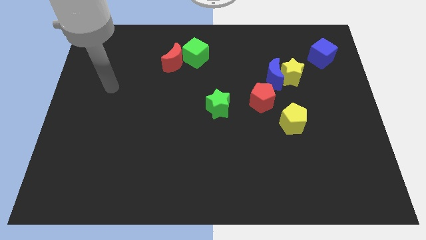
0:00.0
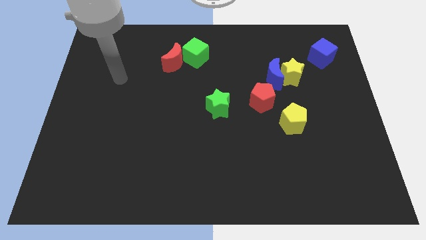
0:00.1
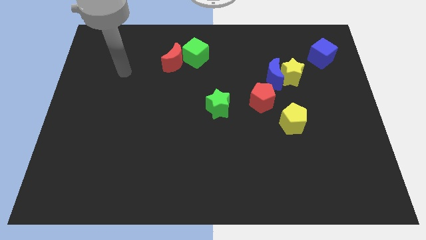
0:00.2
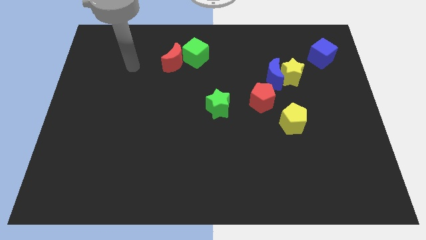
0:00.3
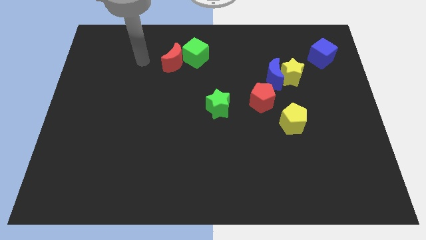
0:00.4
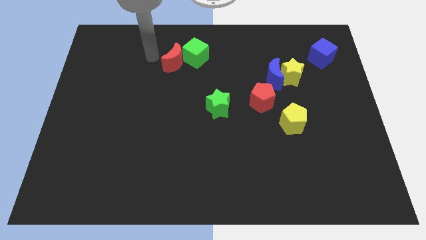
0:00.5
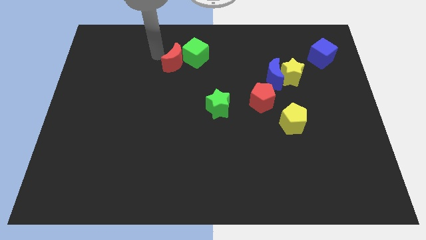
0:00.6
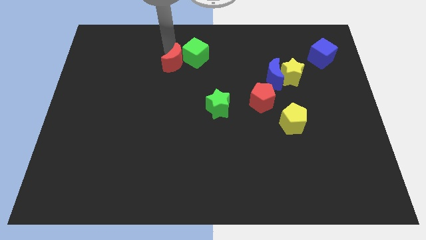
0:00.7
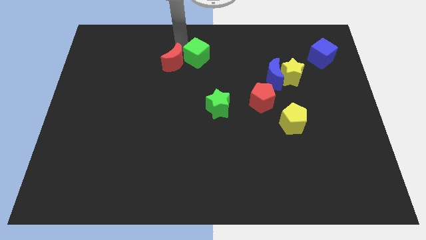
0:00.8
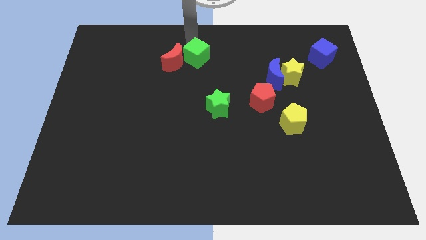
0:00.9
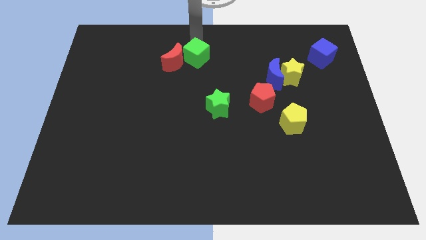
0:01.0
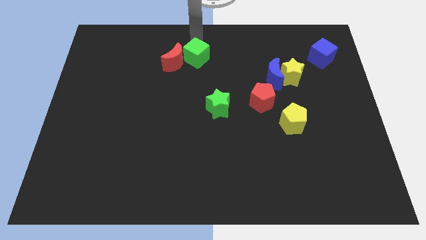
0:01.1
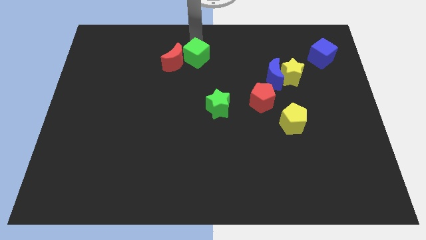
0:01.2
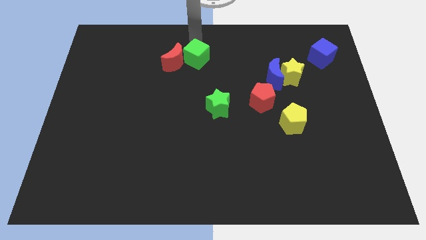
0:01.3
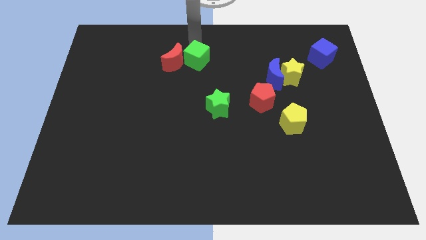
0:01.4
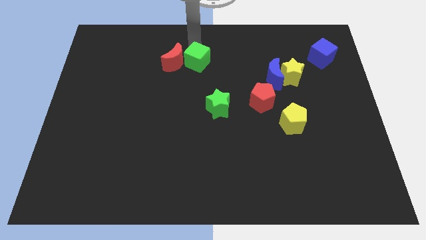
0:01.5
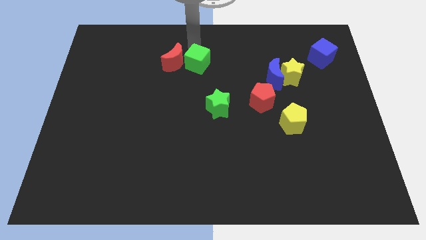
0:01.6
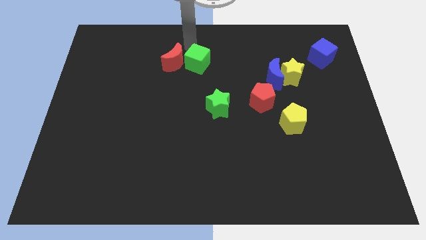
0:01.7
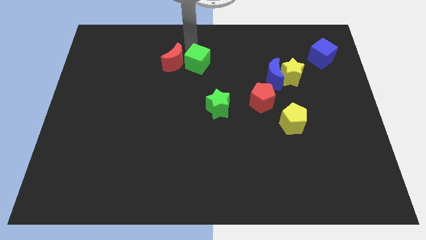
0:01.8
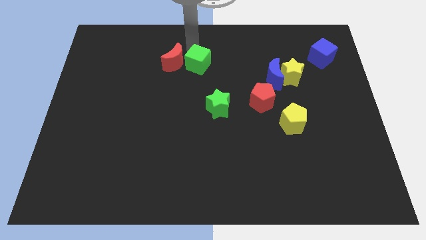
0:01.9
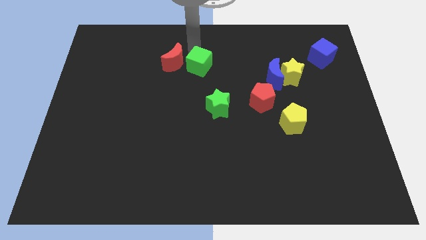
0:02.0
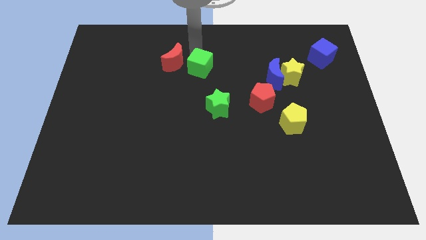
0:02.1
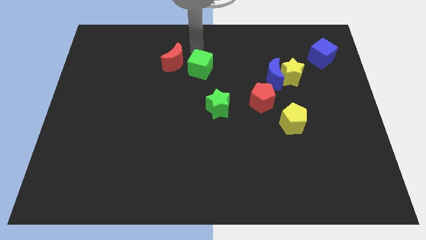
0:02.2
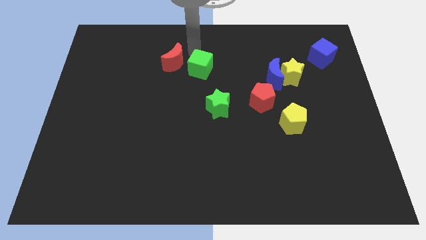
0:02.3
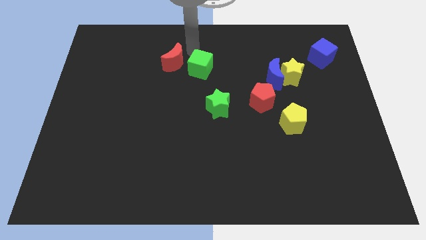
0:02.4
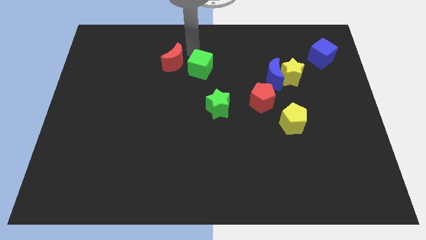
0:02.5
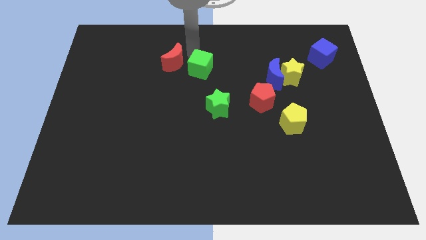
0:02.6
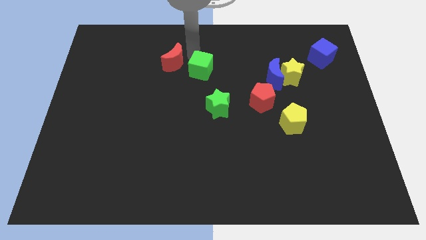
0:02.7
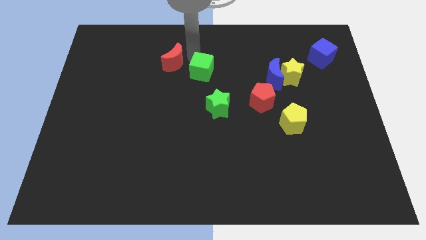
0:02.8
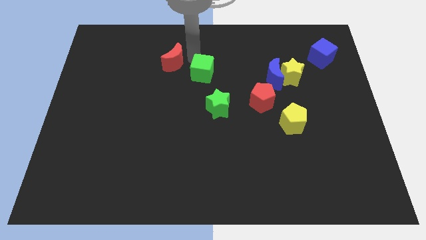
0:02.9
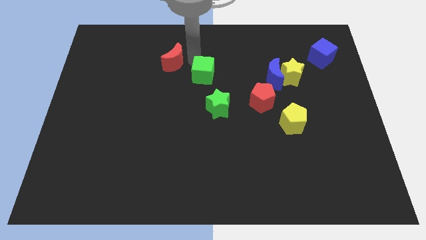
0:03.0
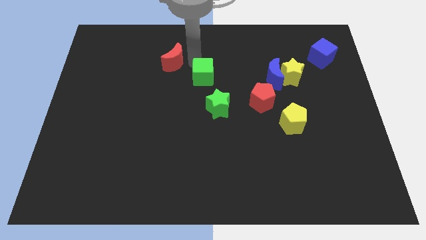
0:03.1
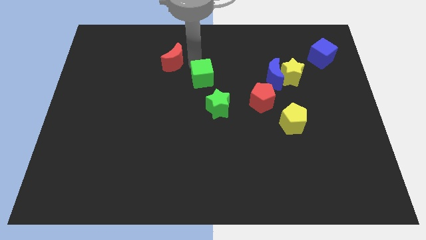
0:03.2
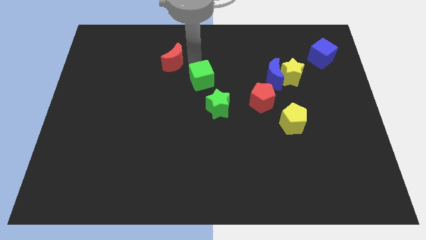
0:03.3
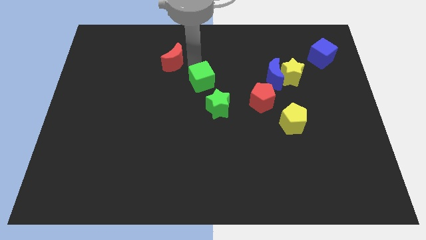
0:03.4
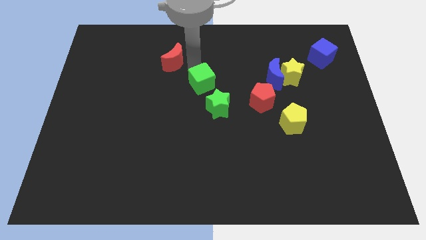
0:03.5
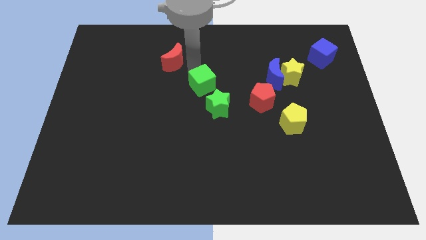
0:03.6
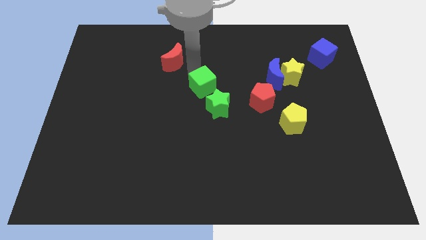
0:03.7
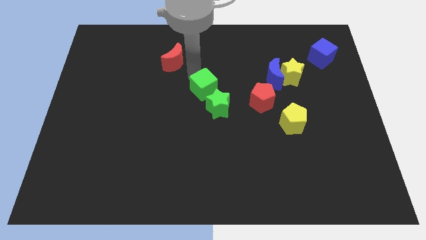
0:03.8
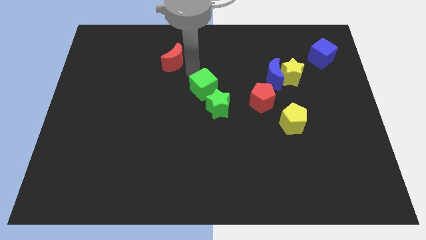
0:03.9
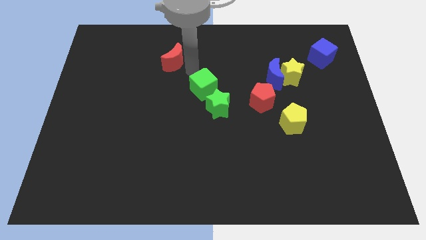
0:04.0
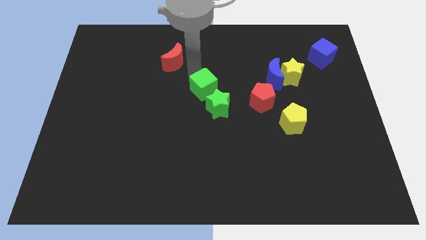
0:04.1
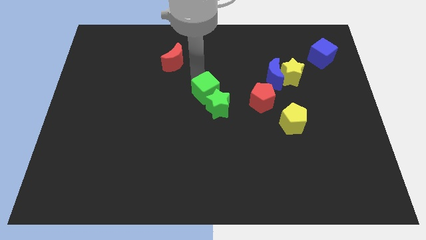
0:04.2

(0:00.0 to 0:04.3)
move the green cube to the green star

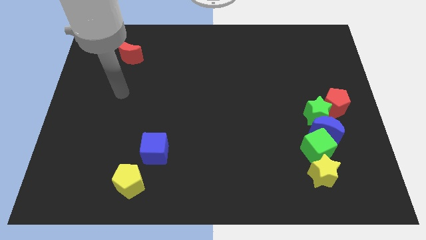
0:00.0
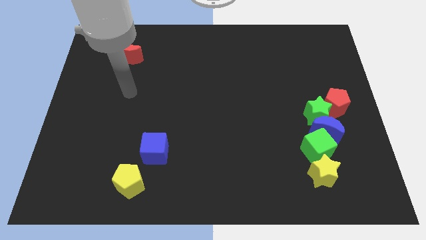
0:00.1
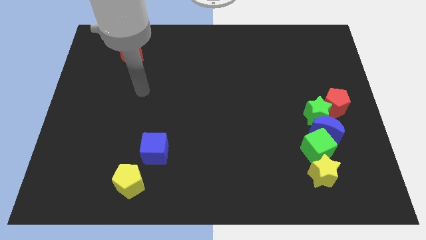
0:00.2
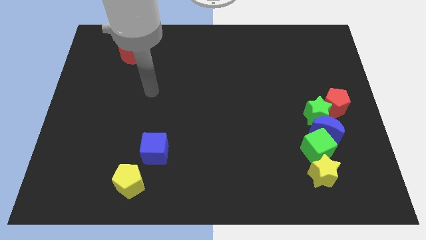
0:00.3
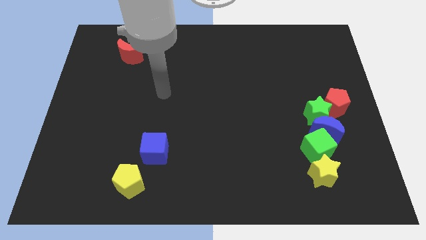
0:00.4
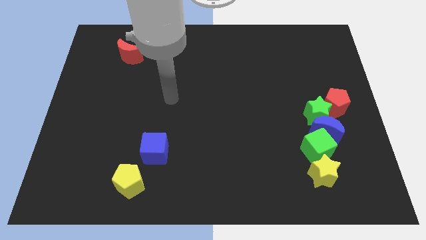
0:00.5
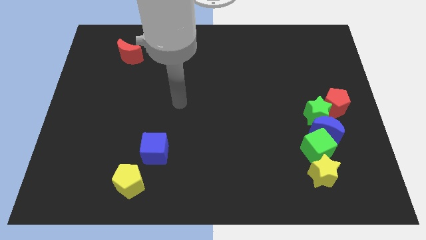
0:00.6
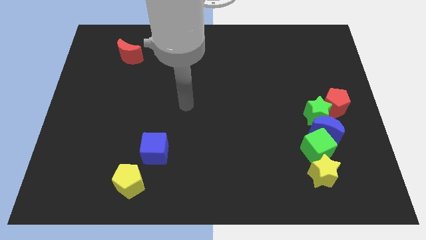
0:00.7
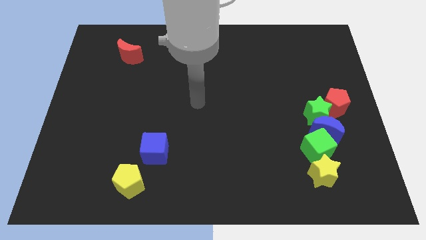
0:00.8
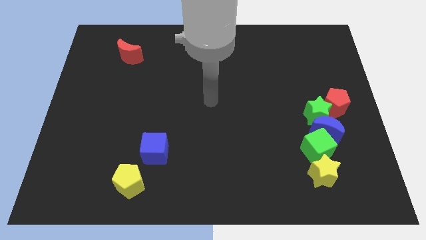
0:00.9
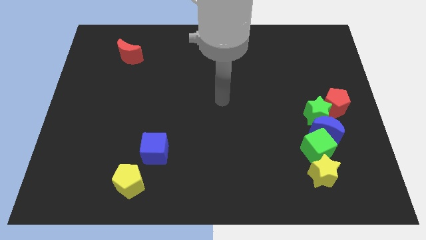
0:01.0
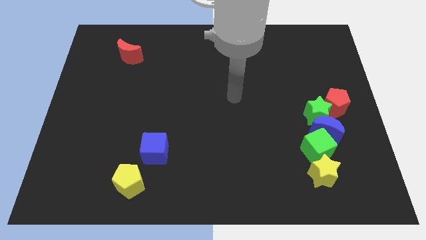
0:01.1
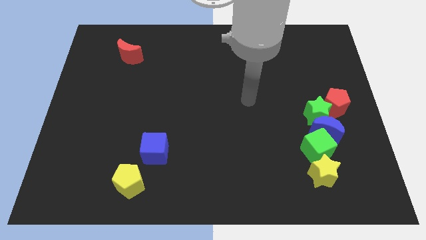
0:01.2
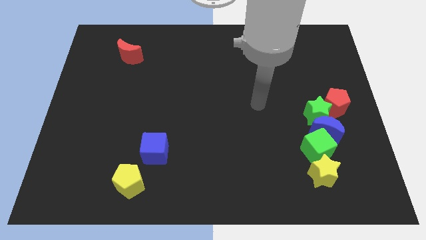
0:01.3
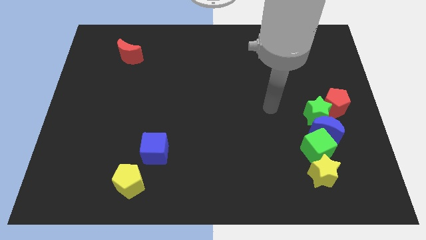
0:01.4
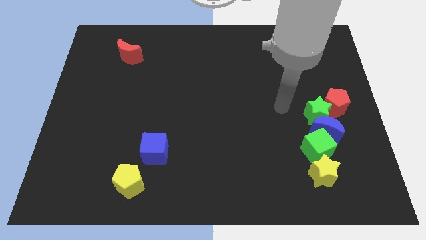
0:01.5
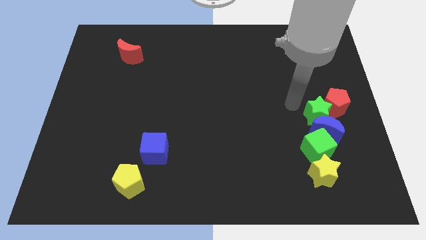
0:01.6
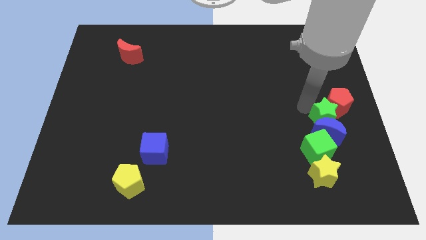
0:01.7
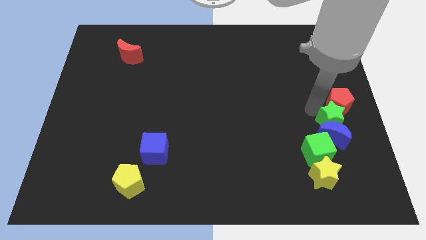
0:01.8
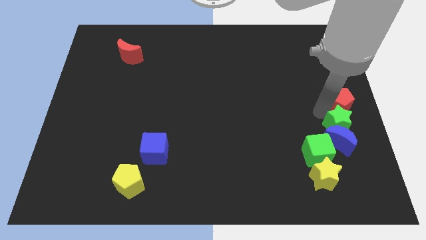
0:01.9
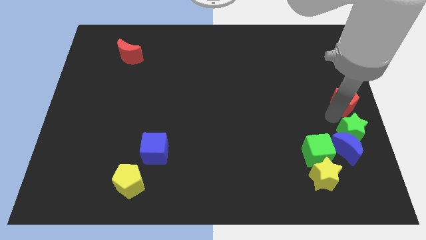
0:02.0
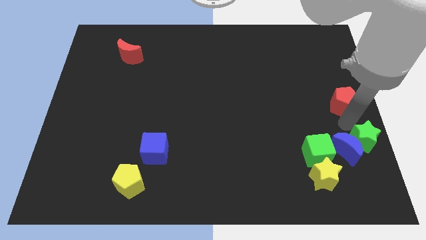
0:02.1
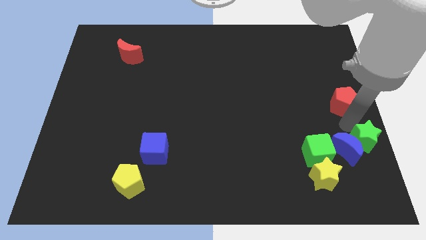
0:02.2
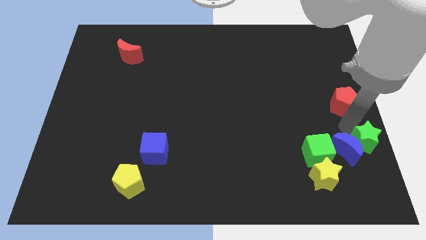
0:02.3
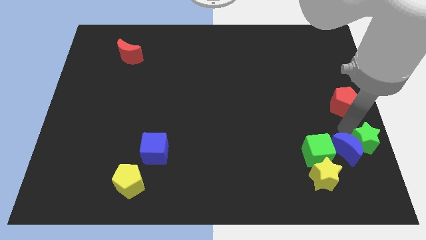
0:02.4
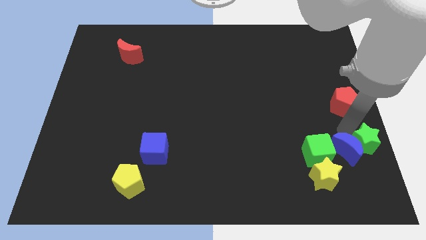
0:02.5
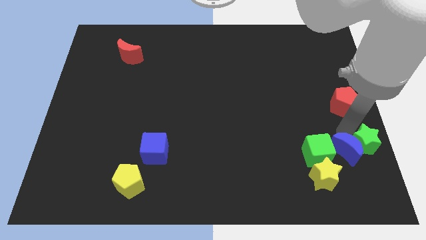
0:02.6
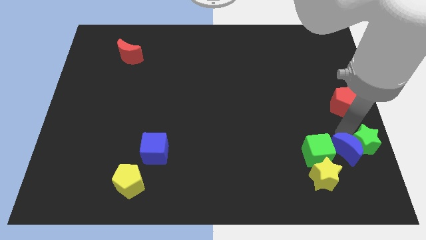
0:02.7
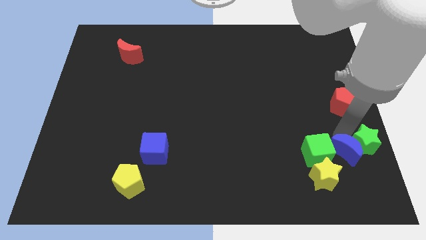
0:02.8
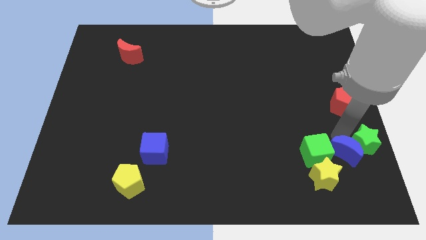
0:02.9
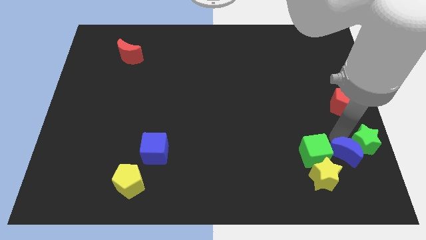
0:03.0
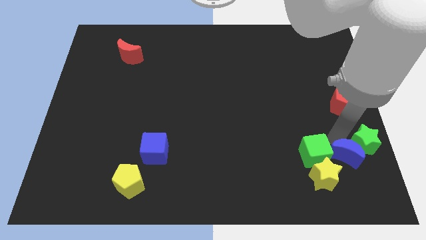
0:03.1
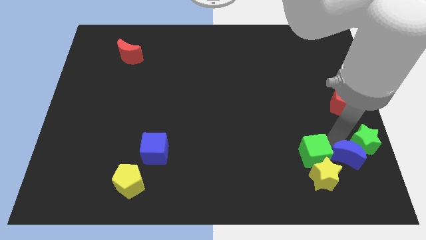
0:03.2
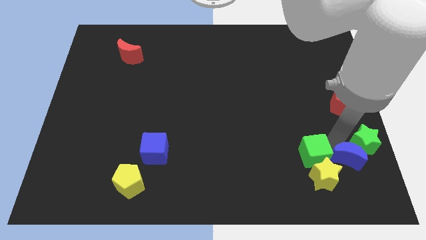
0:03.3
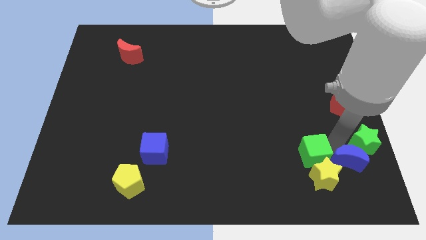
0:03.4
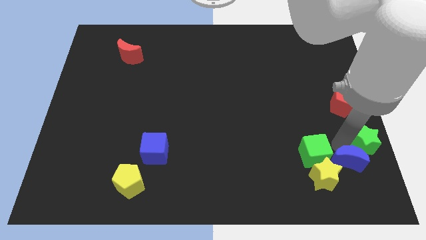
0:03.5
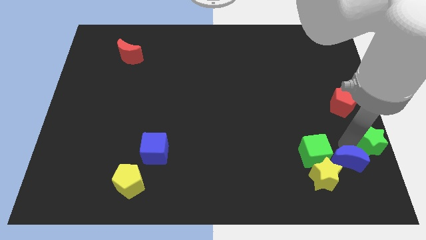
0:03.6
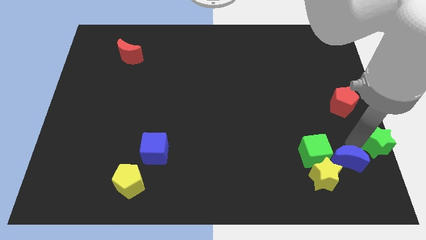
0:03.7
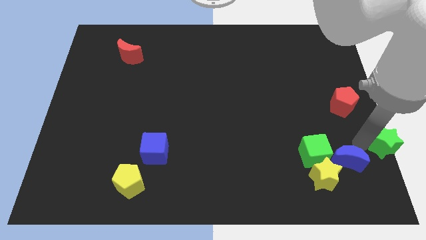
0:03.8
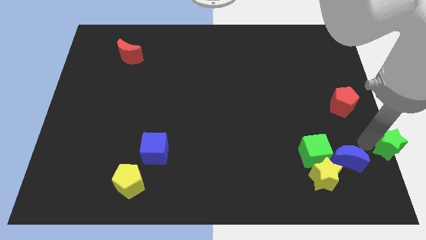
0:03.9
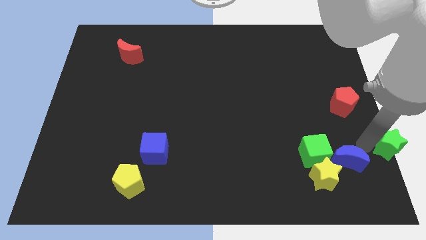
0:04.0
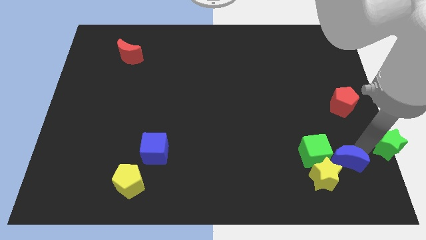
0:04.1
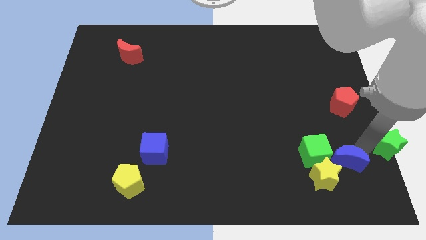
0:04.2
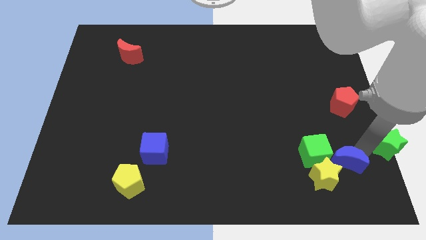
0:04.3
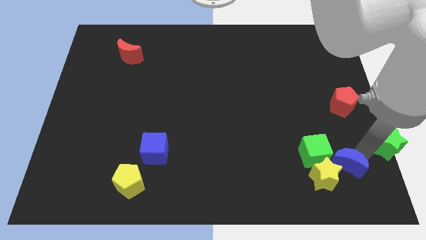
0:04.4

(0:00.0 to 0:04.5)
move the blue moon next to the yellow star
